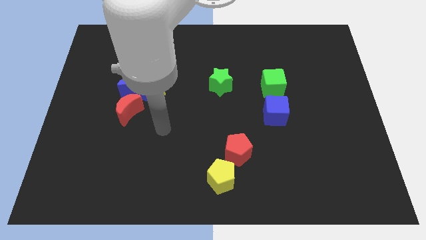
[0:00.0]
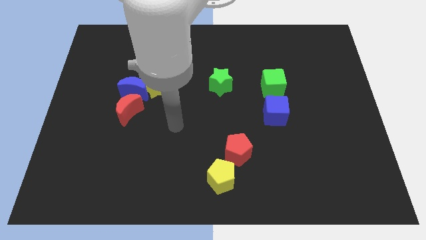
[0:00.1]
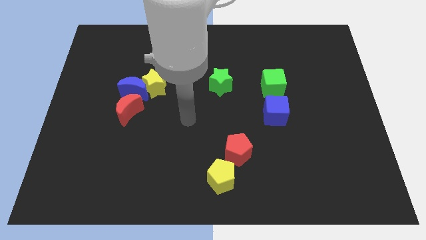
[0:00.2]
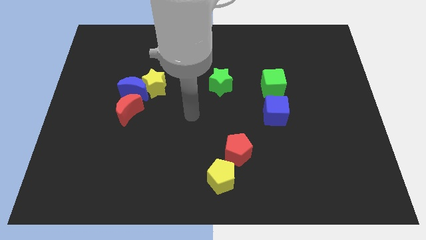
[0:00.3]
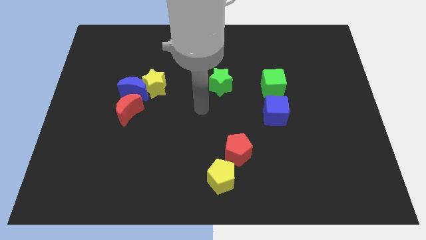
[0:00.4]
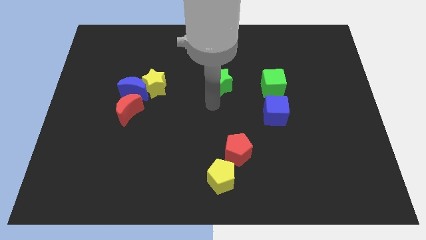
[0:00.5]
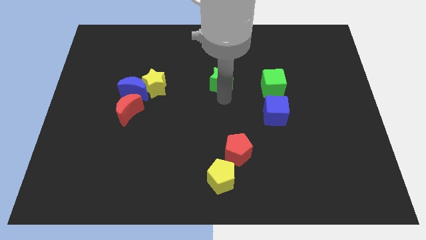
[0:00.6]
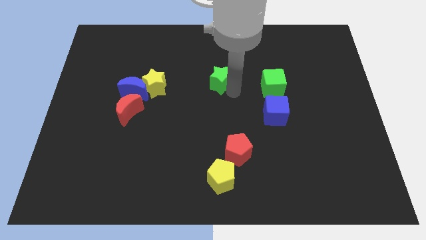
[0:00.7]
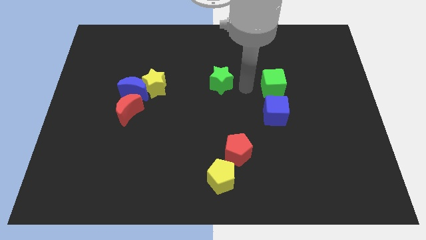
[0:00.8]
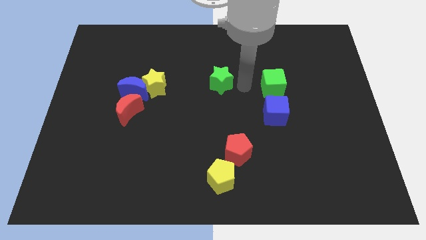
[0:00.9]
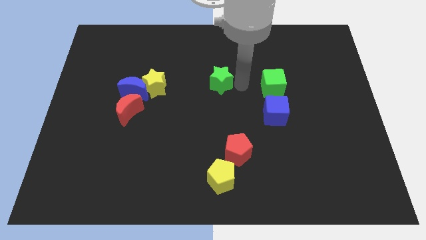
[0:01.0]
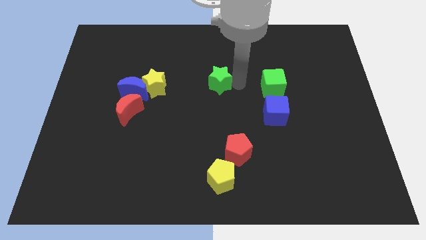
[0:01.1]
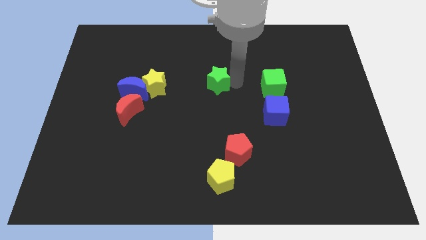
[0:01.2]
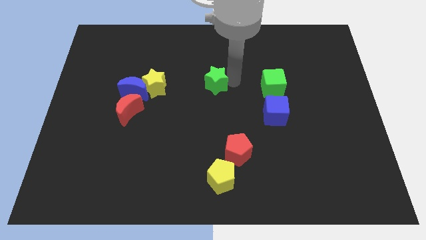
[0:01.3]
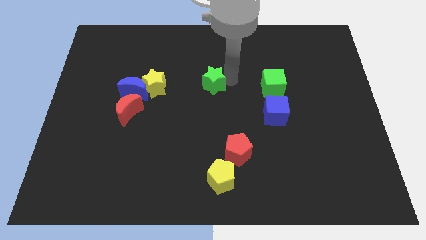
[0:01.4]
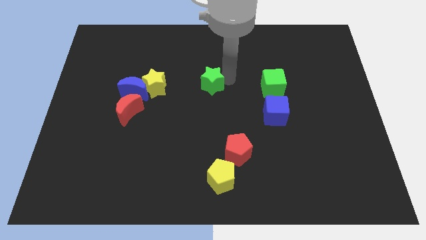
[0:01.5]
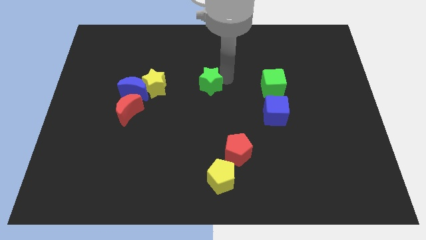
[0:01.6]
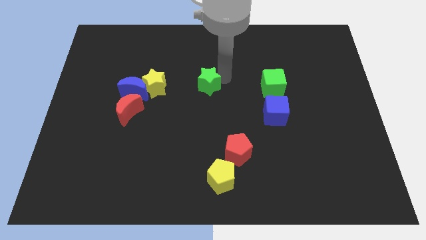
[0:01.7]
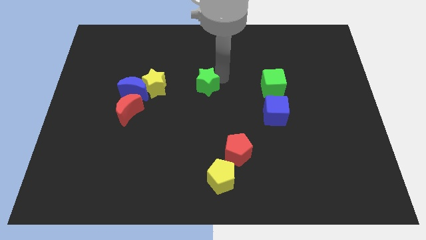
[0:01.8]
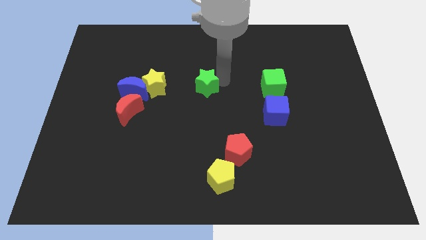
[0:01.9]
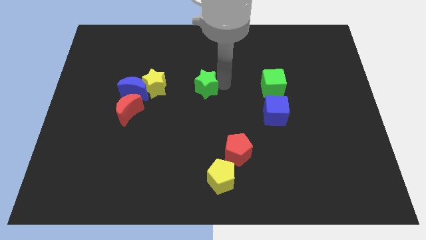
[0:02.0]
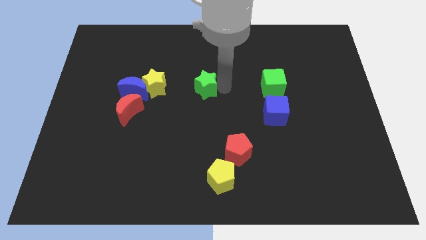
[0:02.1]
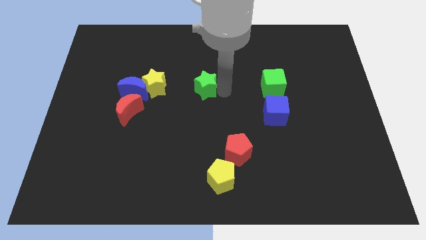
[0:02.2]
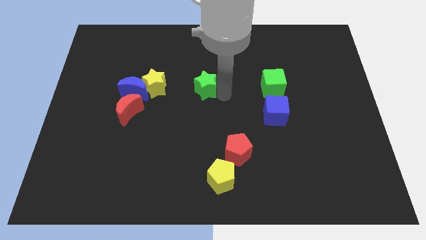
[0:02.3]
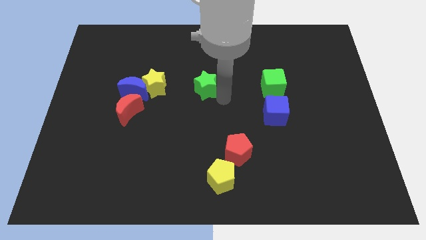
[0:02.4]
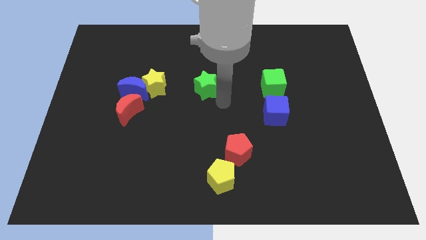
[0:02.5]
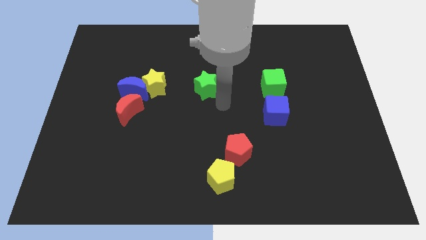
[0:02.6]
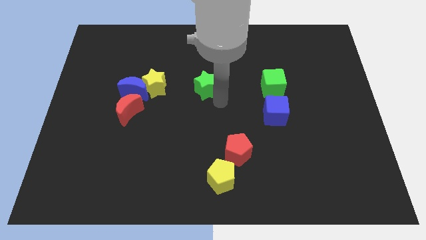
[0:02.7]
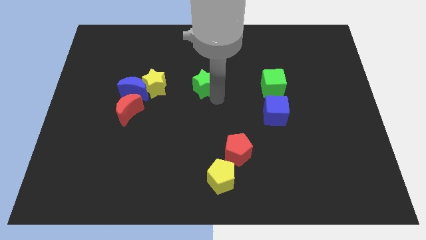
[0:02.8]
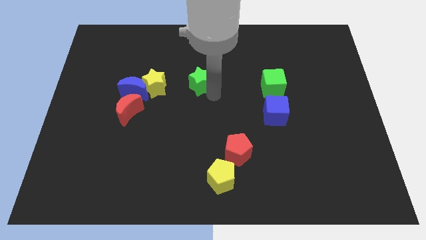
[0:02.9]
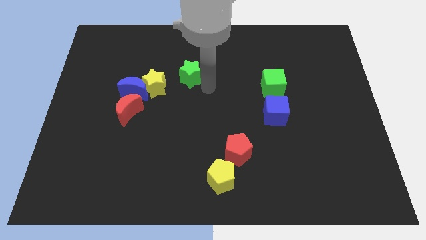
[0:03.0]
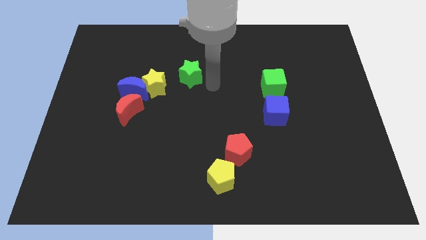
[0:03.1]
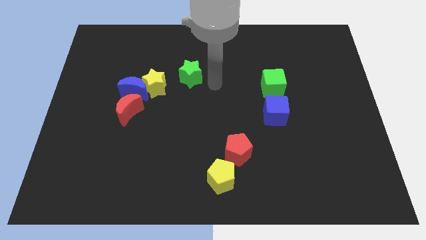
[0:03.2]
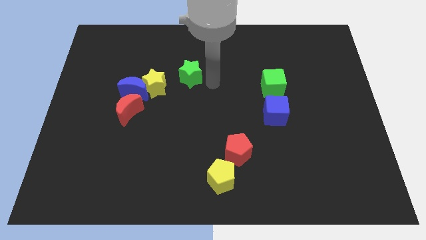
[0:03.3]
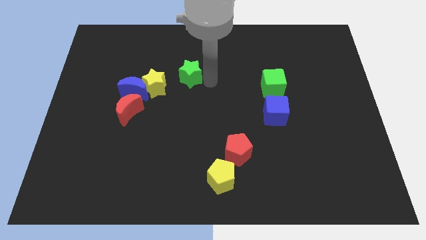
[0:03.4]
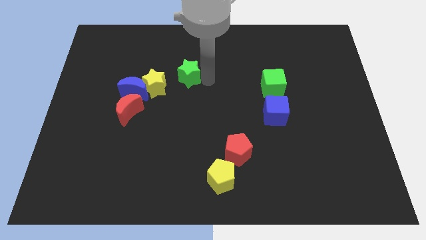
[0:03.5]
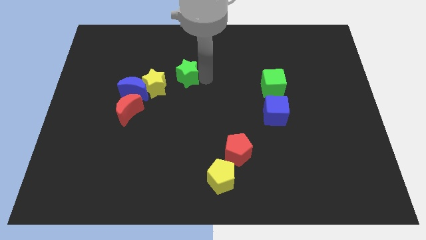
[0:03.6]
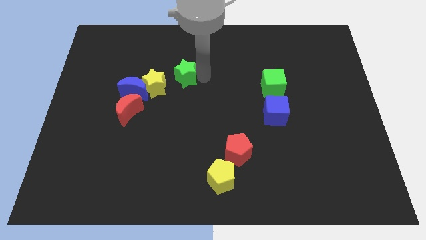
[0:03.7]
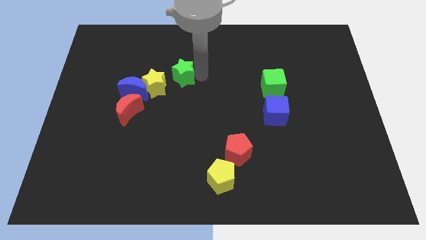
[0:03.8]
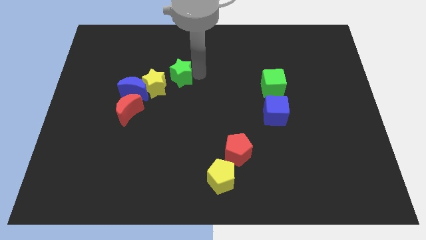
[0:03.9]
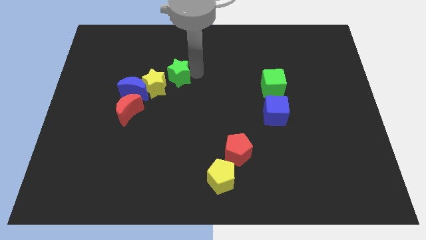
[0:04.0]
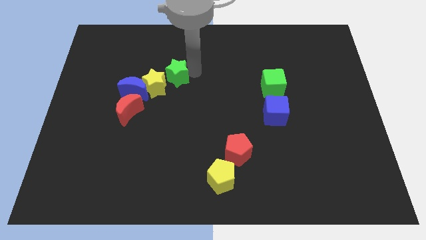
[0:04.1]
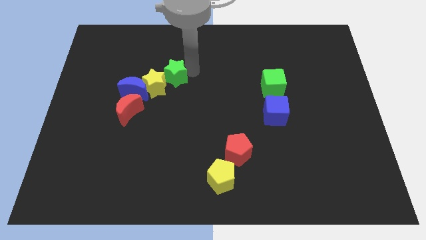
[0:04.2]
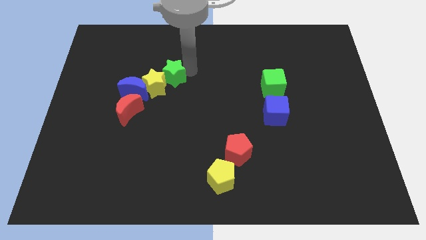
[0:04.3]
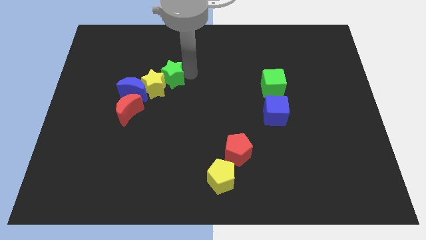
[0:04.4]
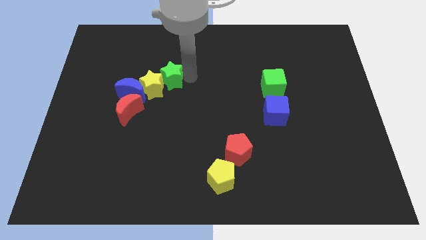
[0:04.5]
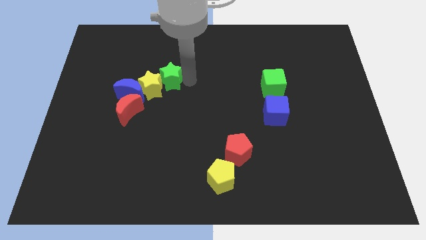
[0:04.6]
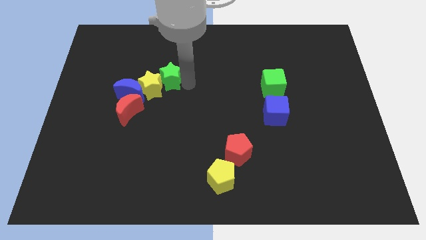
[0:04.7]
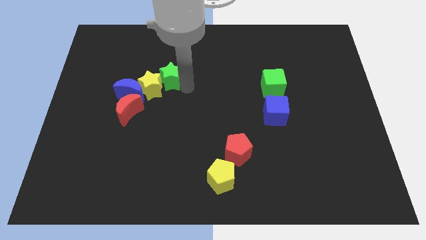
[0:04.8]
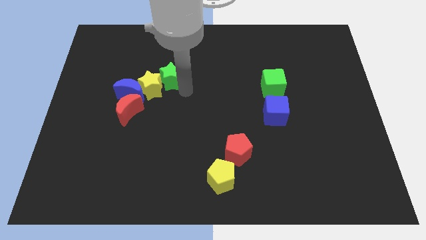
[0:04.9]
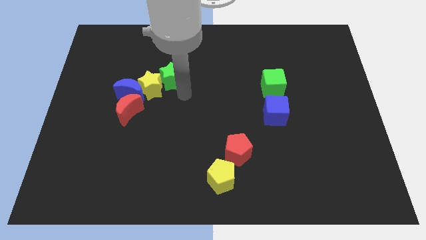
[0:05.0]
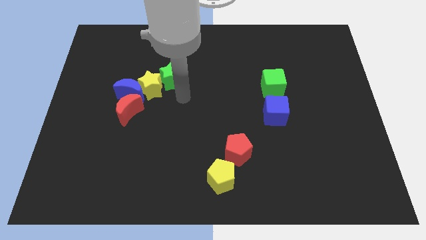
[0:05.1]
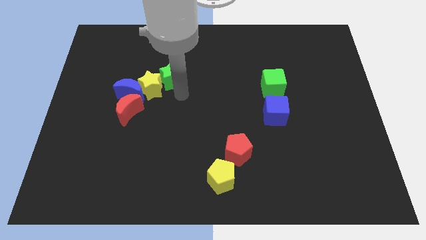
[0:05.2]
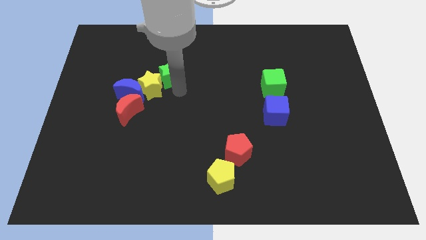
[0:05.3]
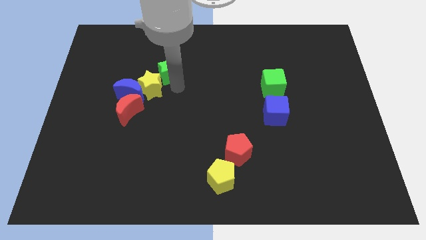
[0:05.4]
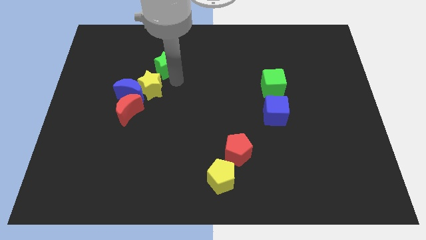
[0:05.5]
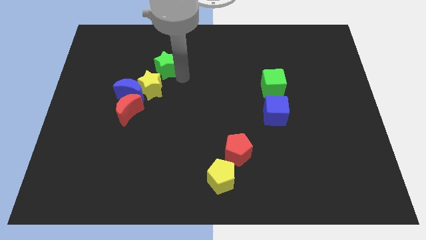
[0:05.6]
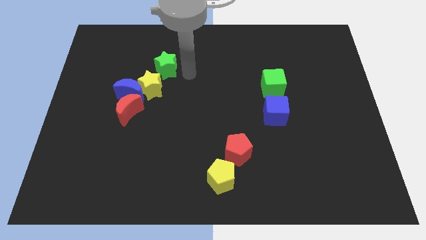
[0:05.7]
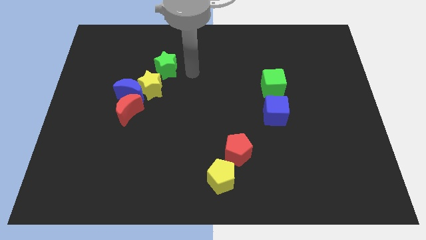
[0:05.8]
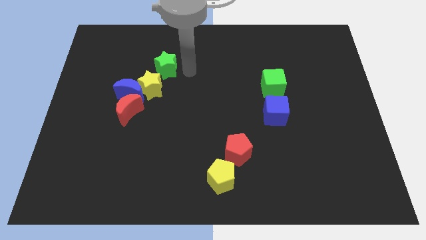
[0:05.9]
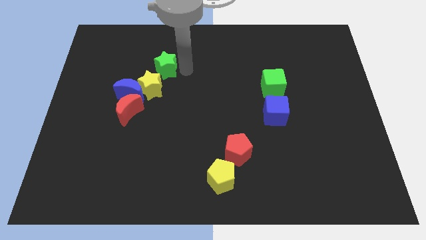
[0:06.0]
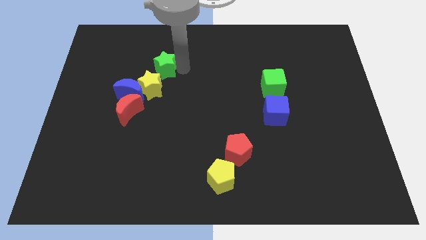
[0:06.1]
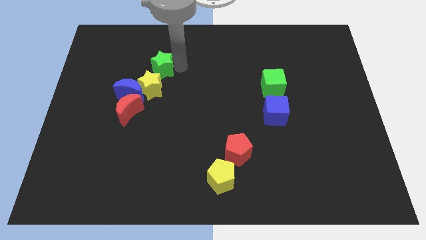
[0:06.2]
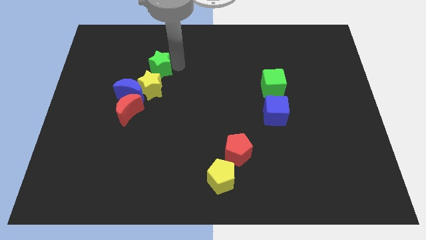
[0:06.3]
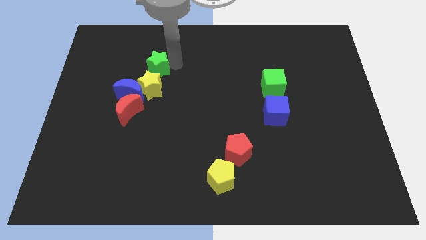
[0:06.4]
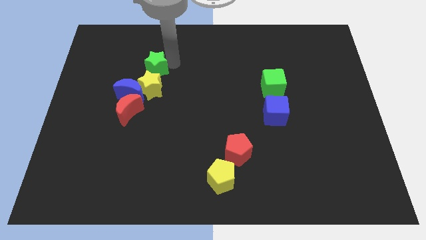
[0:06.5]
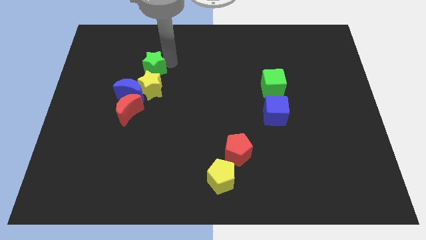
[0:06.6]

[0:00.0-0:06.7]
put the green star to the top of the blue moon

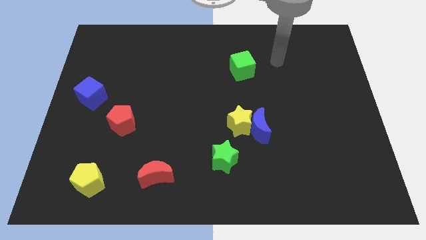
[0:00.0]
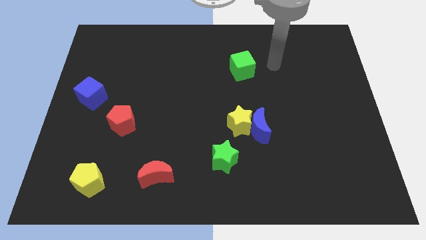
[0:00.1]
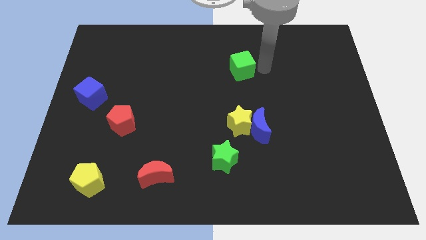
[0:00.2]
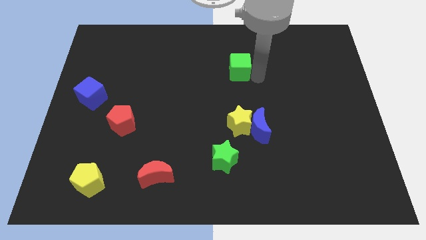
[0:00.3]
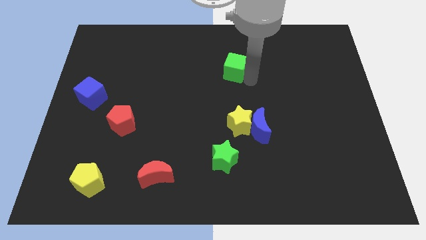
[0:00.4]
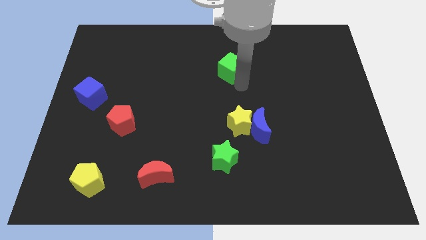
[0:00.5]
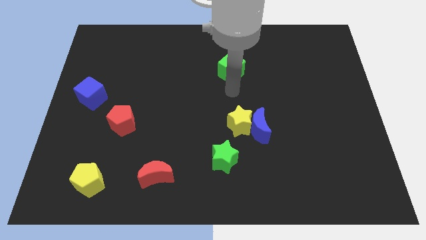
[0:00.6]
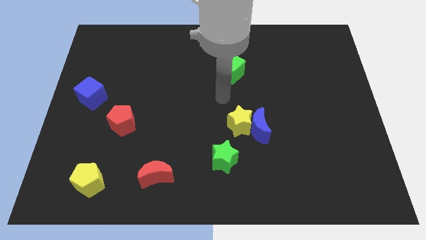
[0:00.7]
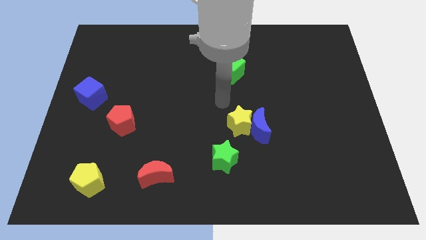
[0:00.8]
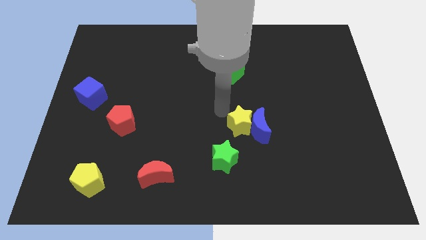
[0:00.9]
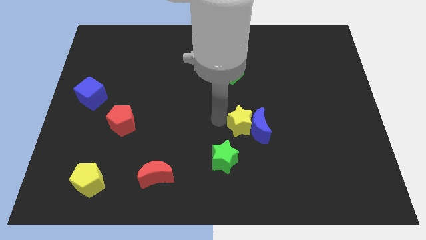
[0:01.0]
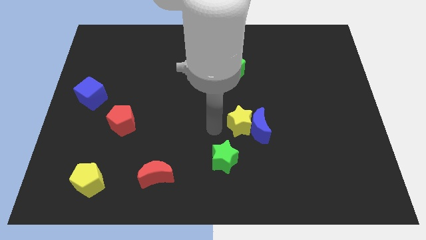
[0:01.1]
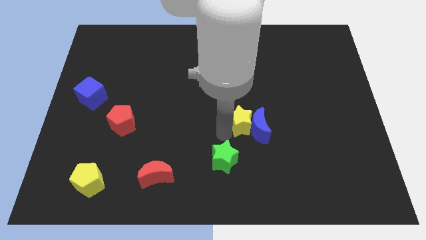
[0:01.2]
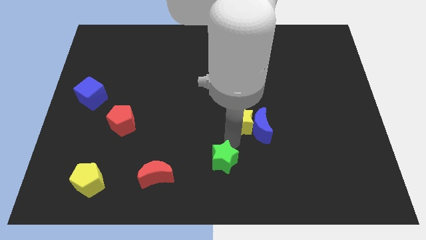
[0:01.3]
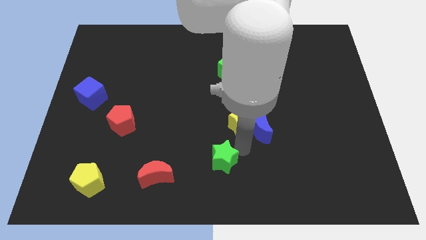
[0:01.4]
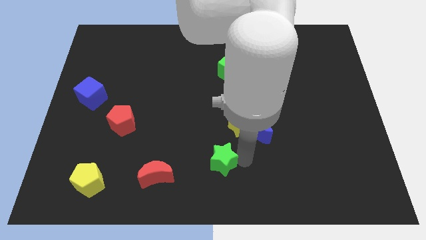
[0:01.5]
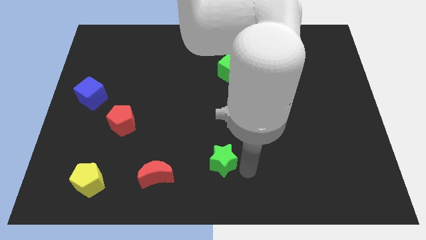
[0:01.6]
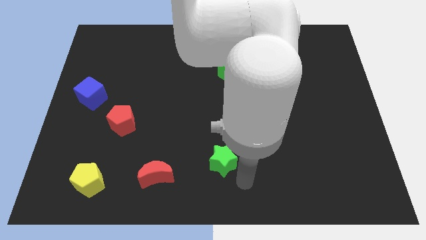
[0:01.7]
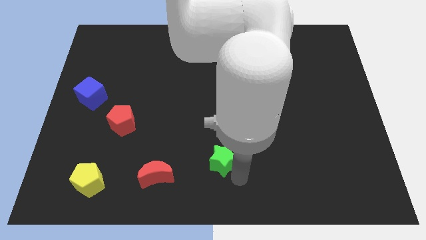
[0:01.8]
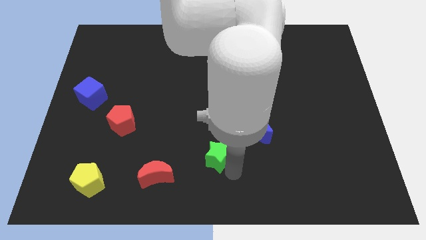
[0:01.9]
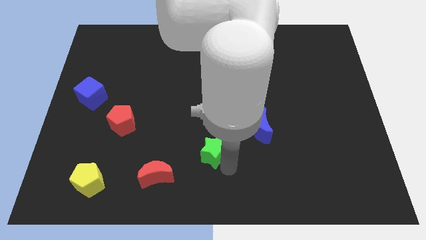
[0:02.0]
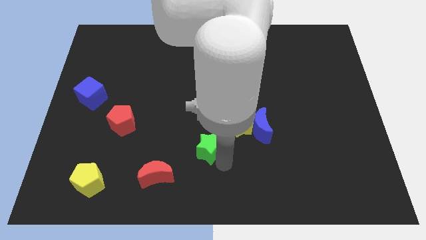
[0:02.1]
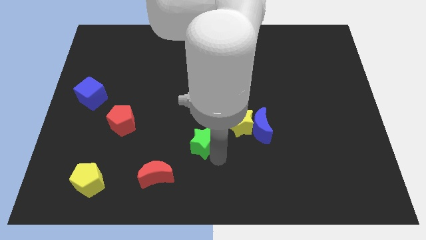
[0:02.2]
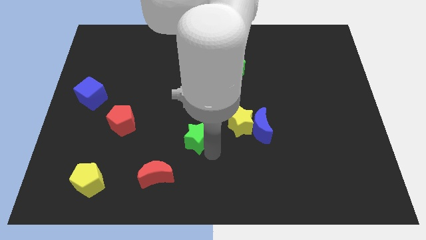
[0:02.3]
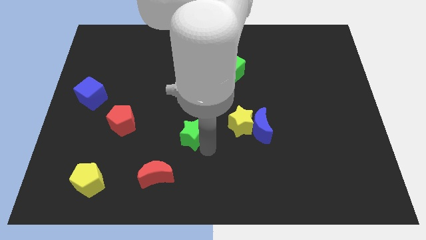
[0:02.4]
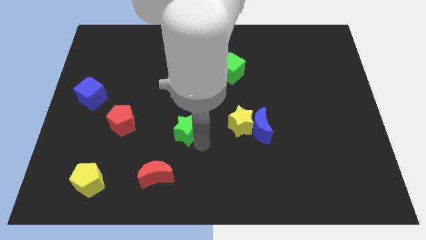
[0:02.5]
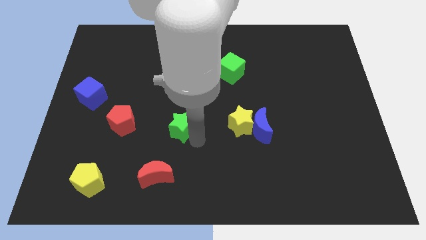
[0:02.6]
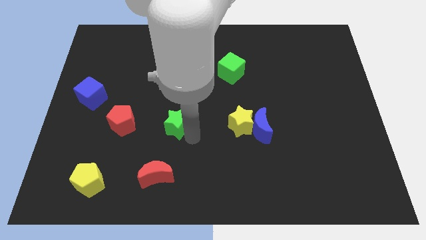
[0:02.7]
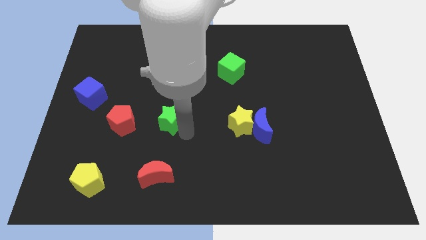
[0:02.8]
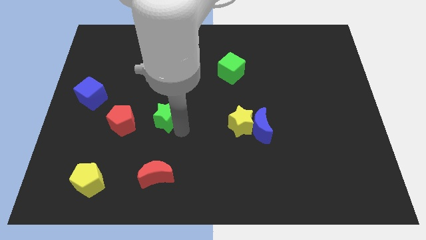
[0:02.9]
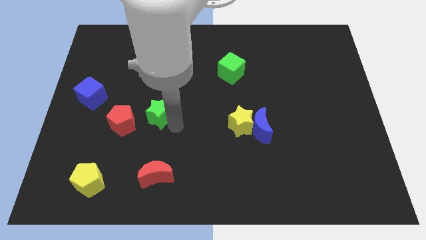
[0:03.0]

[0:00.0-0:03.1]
push the green star diagonally up and to the right of the red pentagon
